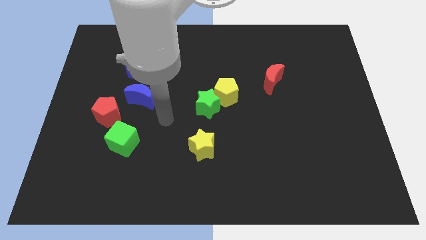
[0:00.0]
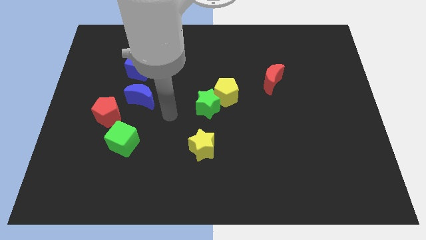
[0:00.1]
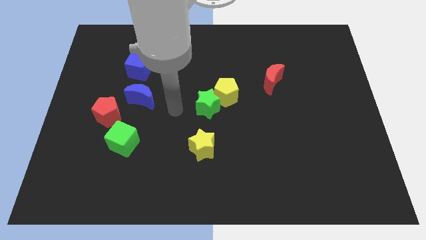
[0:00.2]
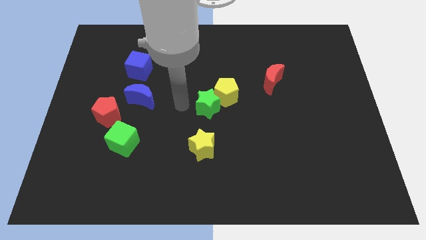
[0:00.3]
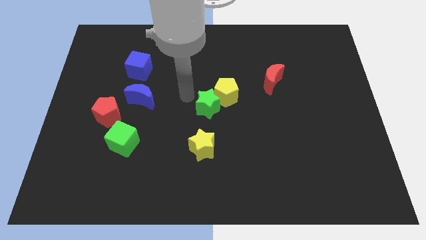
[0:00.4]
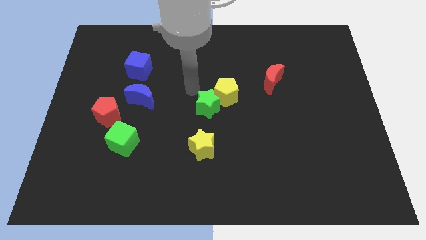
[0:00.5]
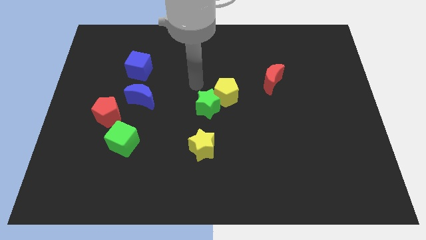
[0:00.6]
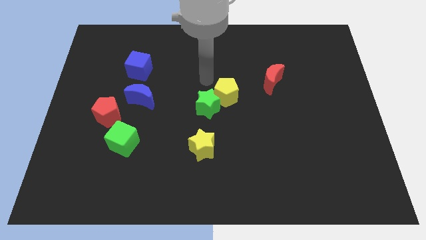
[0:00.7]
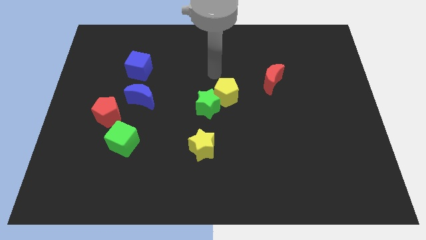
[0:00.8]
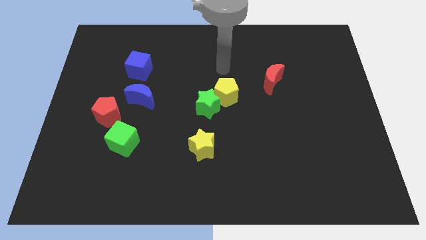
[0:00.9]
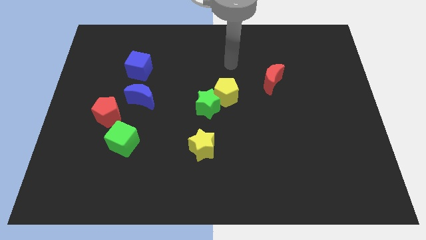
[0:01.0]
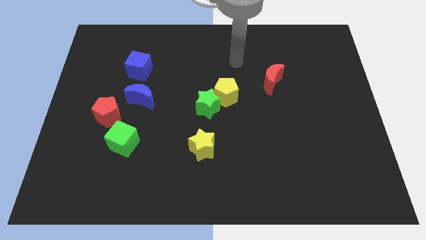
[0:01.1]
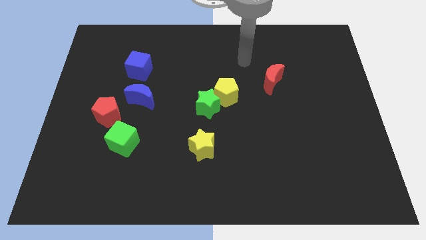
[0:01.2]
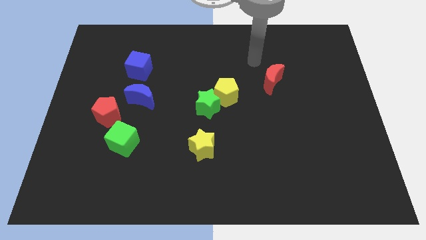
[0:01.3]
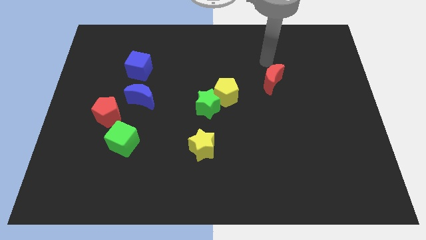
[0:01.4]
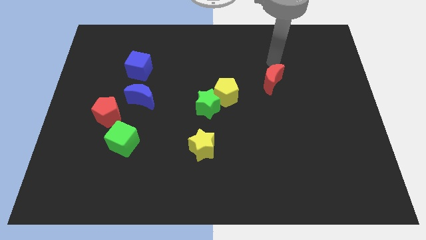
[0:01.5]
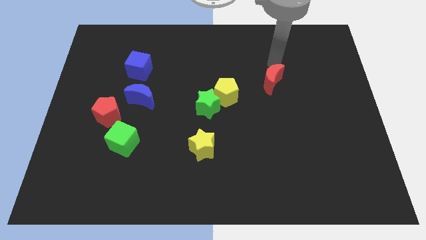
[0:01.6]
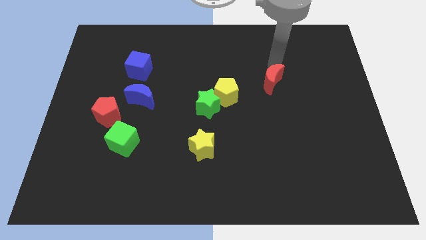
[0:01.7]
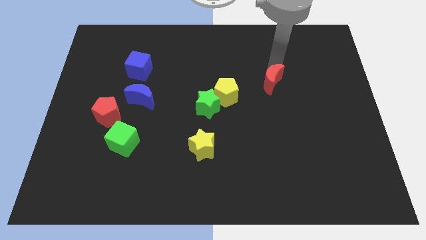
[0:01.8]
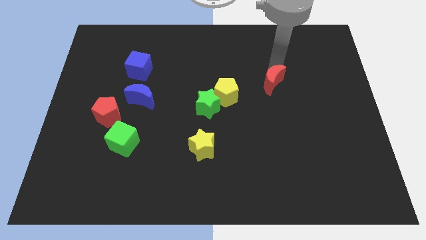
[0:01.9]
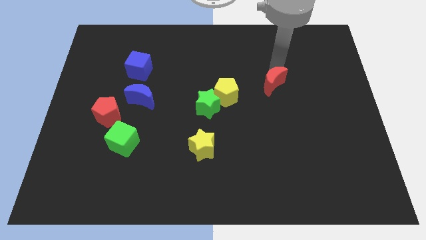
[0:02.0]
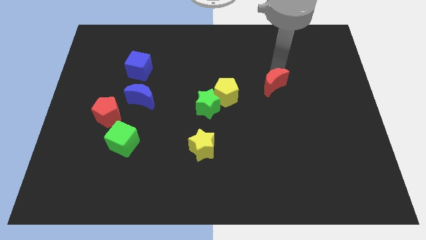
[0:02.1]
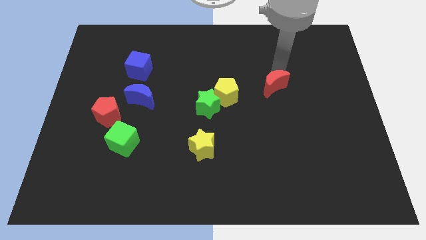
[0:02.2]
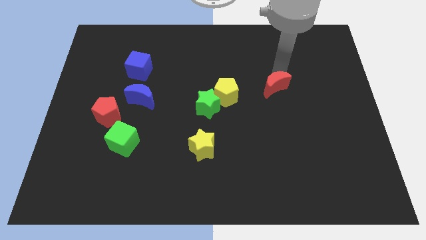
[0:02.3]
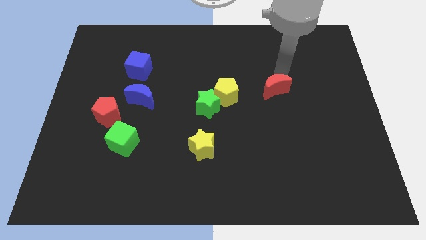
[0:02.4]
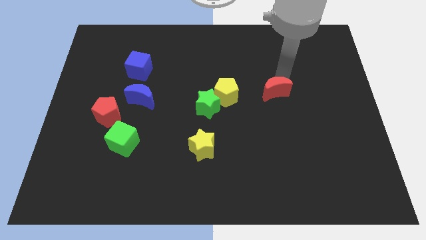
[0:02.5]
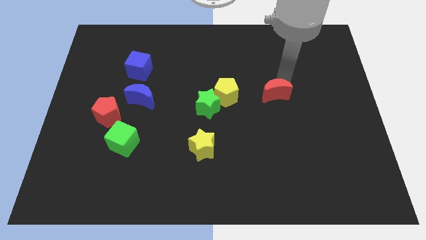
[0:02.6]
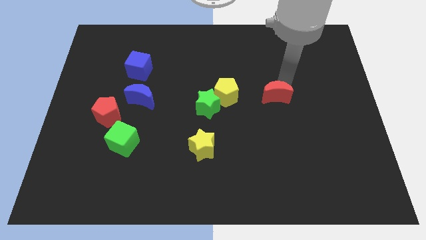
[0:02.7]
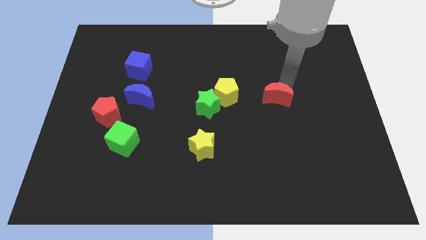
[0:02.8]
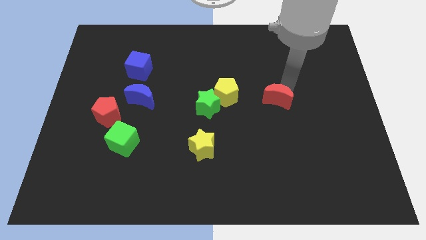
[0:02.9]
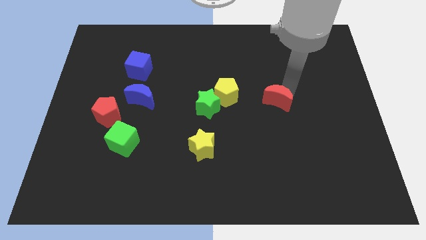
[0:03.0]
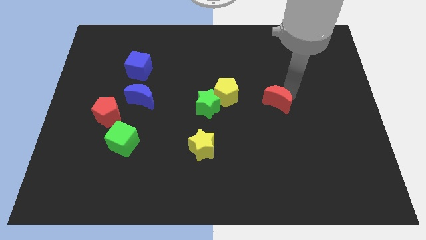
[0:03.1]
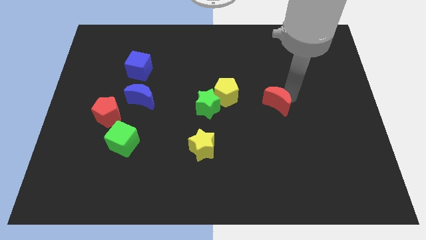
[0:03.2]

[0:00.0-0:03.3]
push the red moon a little bit down

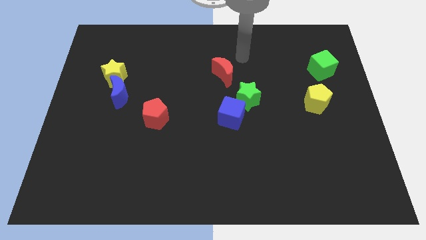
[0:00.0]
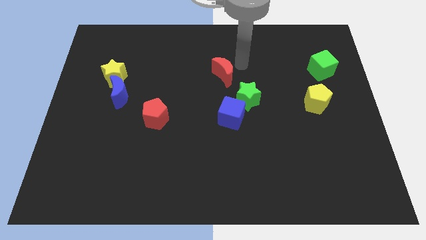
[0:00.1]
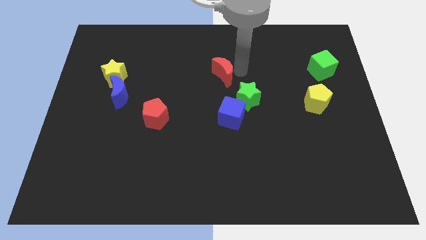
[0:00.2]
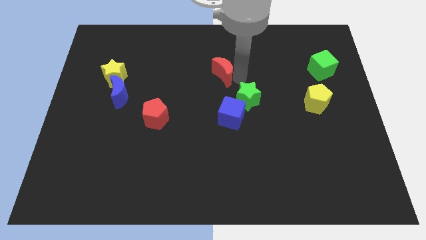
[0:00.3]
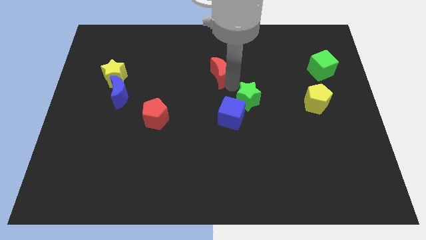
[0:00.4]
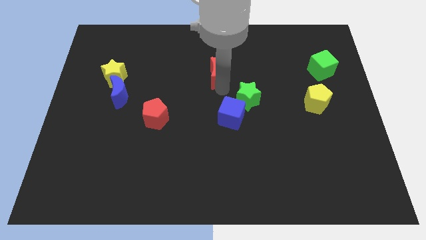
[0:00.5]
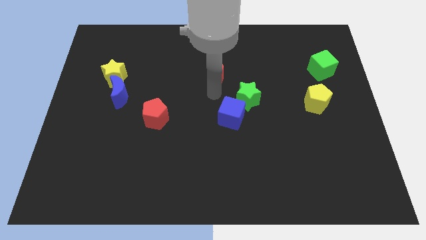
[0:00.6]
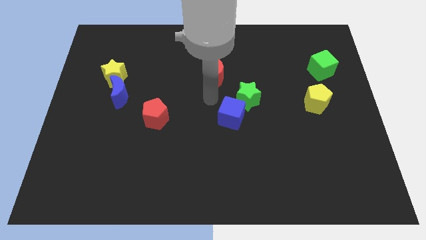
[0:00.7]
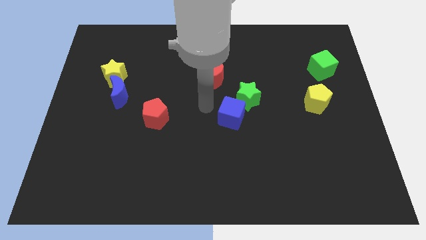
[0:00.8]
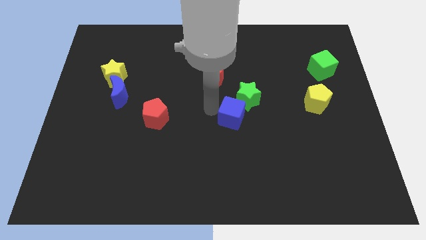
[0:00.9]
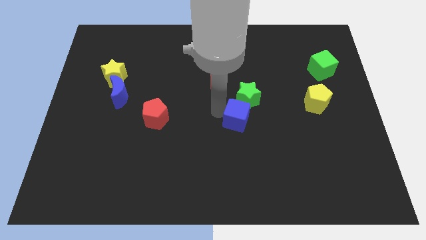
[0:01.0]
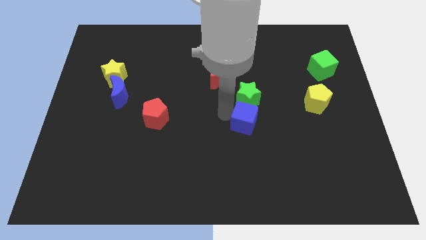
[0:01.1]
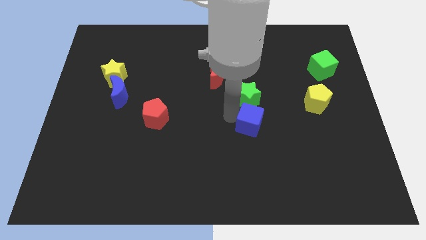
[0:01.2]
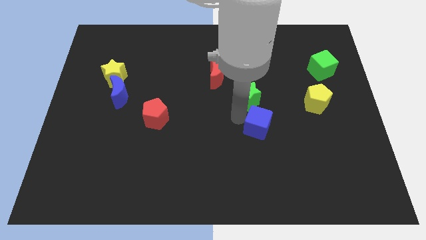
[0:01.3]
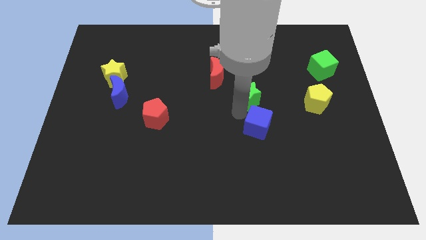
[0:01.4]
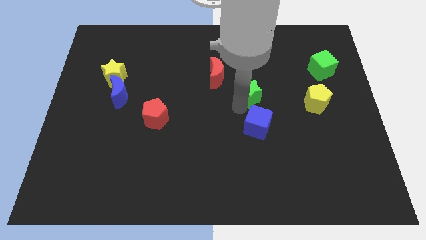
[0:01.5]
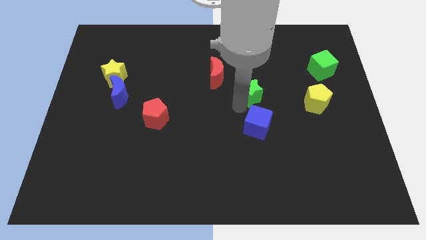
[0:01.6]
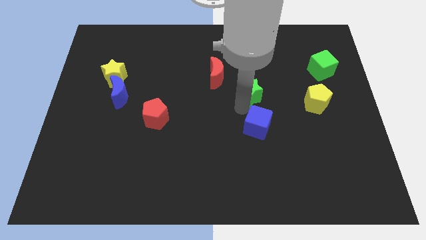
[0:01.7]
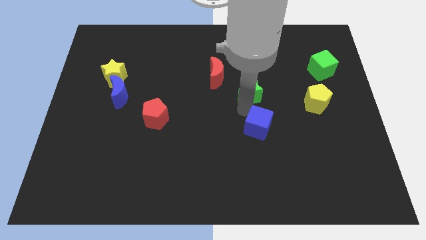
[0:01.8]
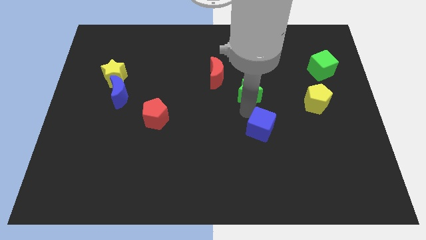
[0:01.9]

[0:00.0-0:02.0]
push the blue cube downwards and to the right diagonally a little bit

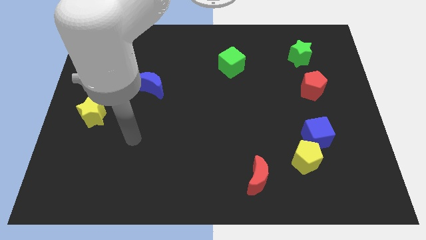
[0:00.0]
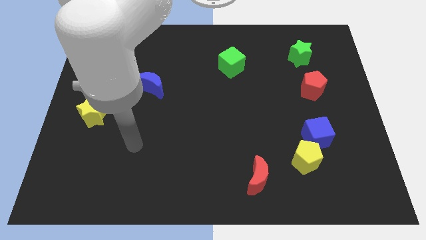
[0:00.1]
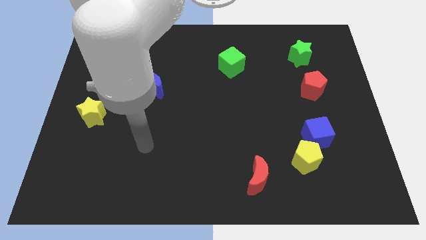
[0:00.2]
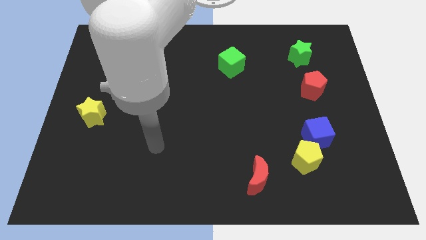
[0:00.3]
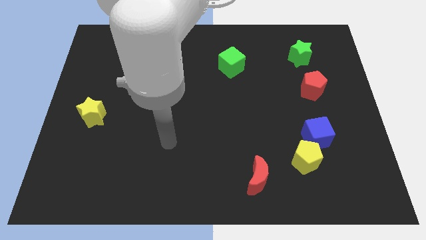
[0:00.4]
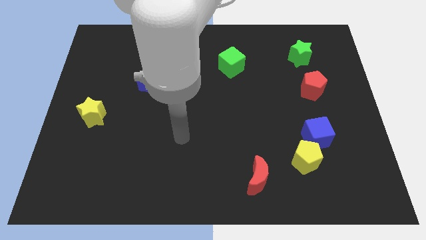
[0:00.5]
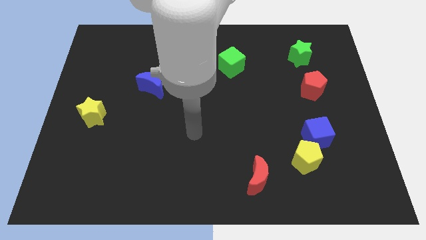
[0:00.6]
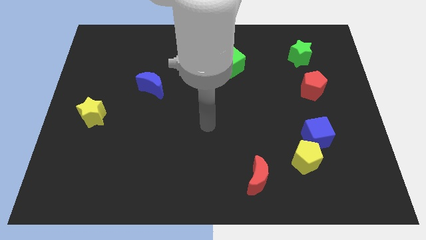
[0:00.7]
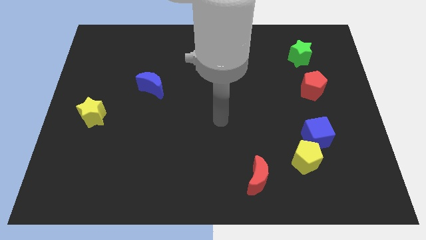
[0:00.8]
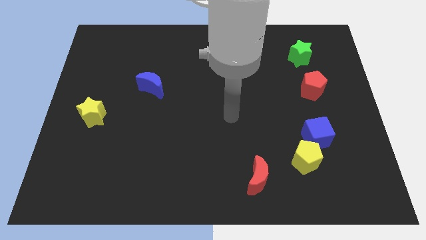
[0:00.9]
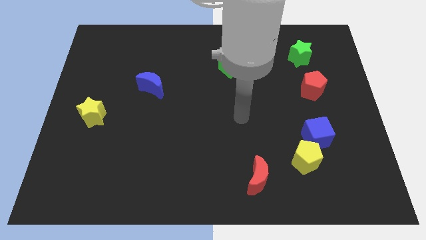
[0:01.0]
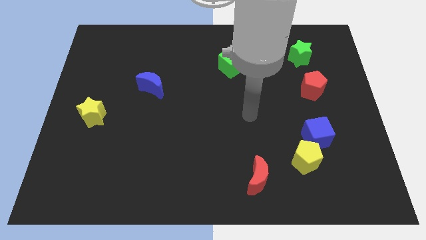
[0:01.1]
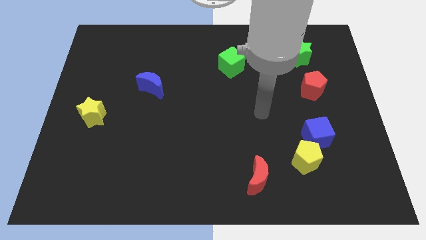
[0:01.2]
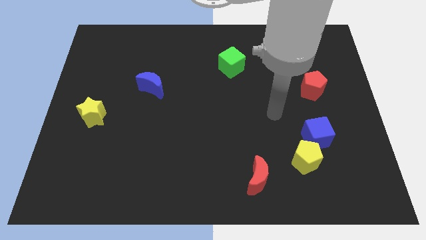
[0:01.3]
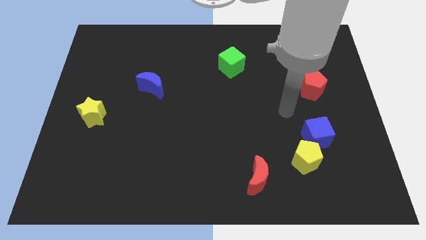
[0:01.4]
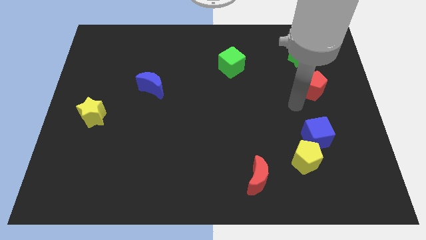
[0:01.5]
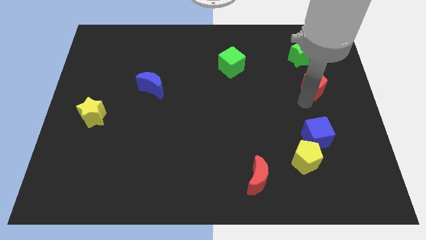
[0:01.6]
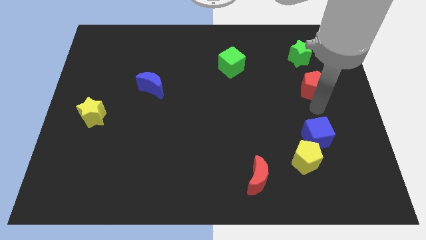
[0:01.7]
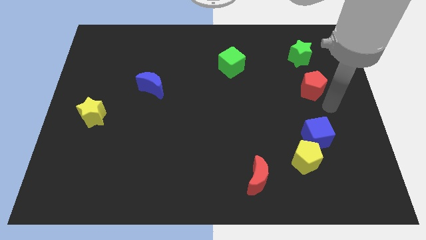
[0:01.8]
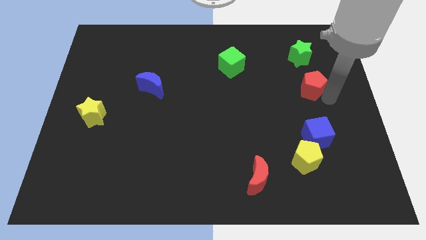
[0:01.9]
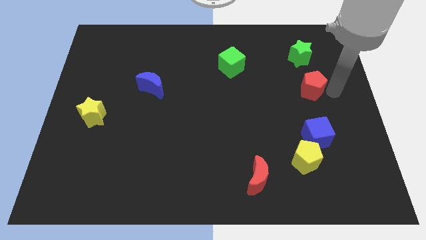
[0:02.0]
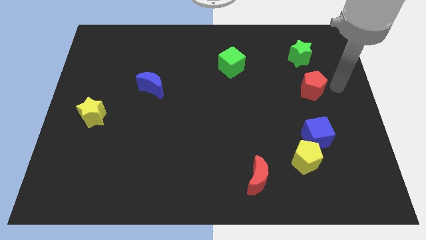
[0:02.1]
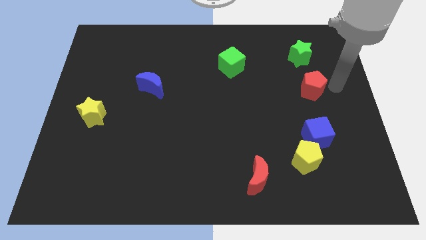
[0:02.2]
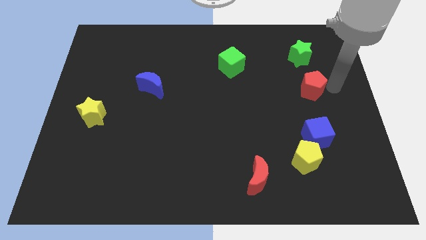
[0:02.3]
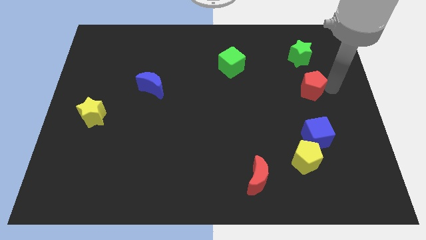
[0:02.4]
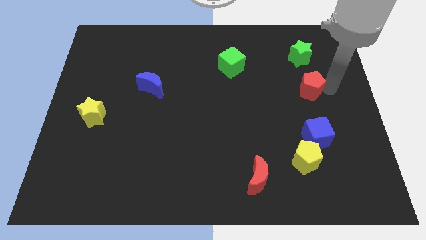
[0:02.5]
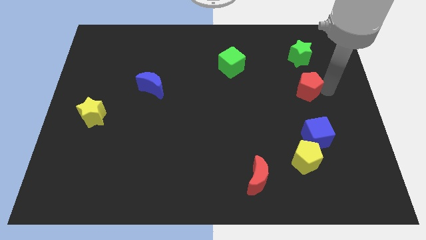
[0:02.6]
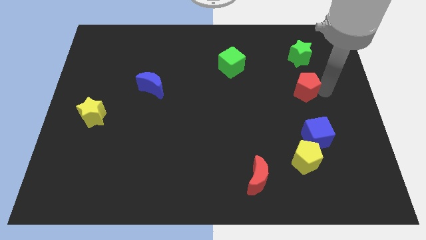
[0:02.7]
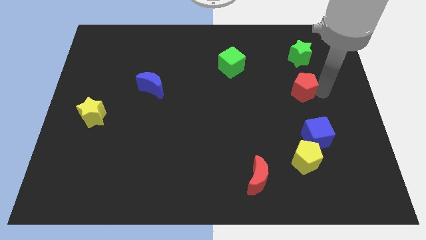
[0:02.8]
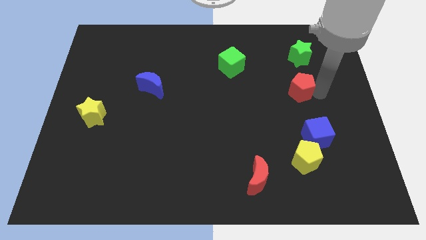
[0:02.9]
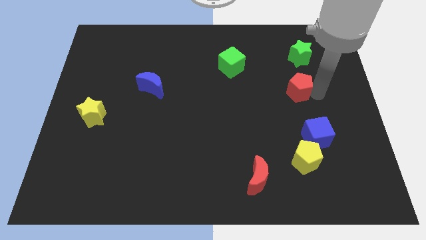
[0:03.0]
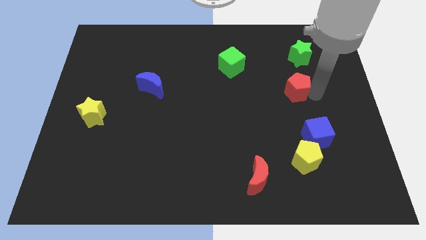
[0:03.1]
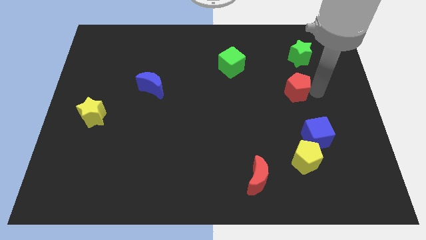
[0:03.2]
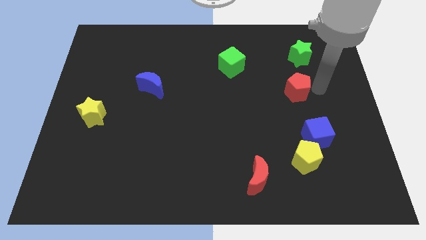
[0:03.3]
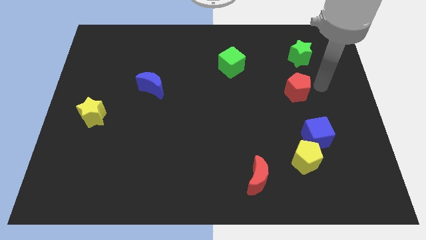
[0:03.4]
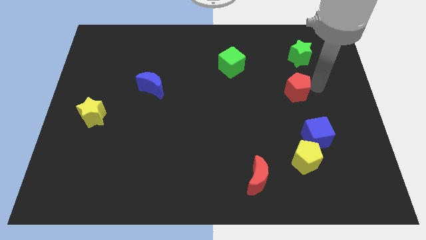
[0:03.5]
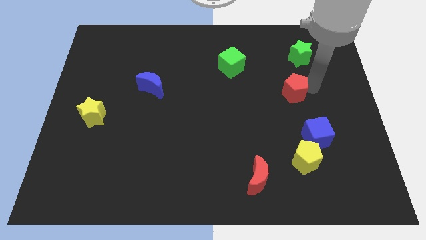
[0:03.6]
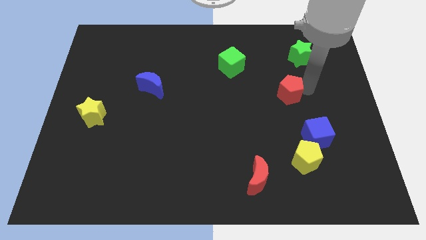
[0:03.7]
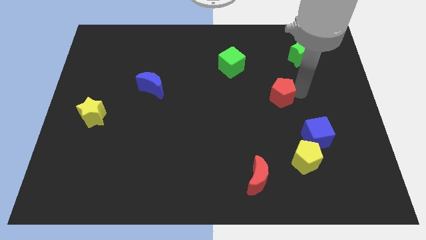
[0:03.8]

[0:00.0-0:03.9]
push the red pentagon left slightly
